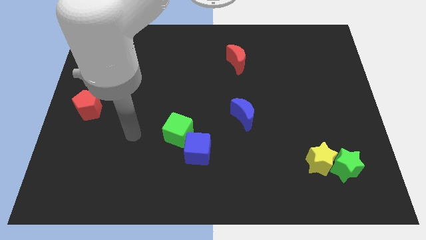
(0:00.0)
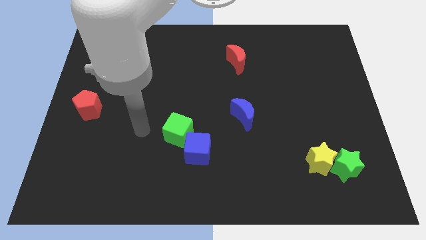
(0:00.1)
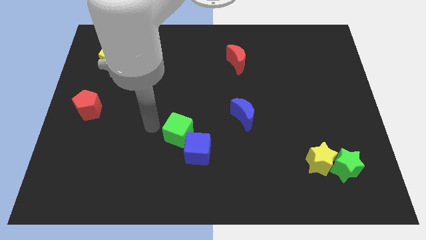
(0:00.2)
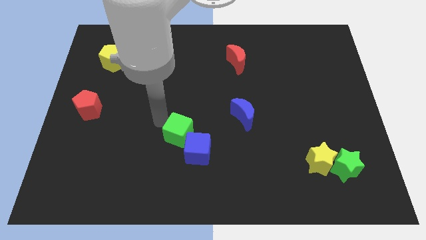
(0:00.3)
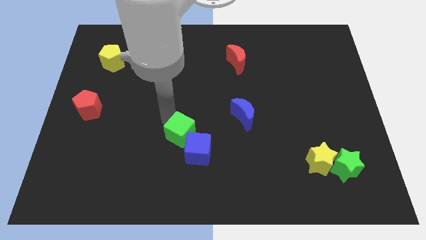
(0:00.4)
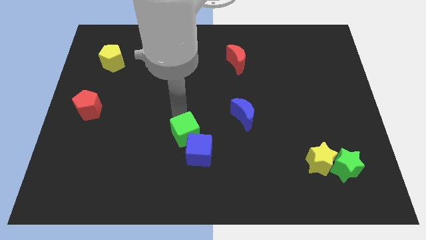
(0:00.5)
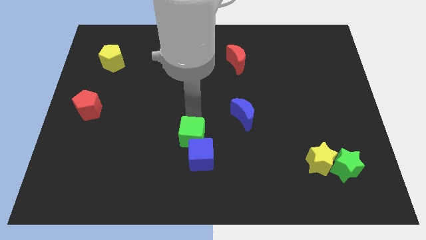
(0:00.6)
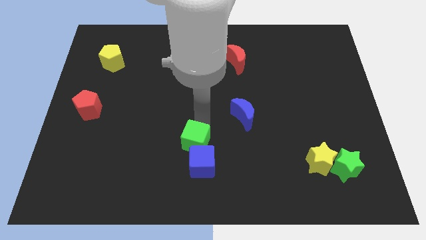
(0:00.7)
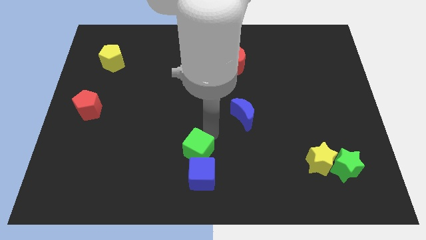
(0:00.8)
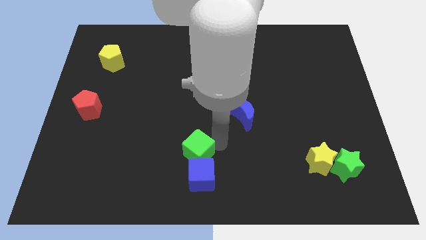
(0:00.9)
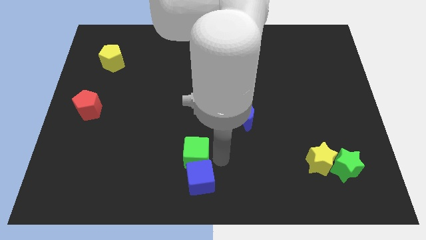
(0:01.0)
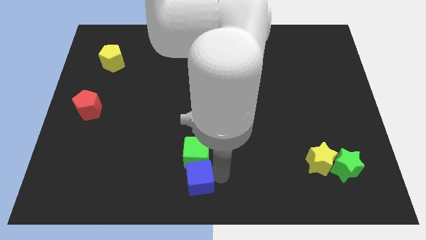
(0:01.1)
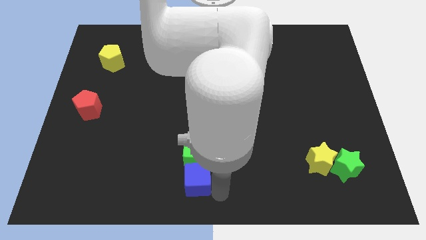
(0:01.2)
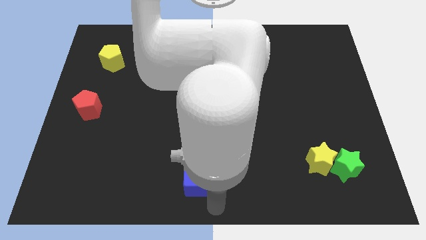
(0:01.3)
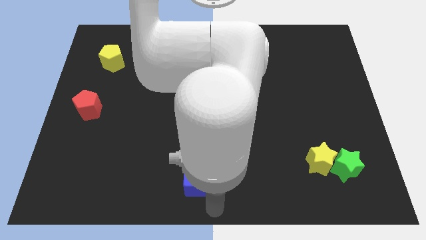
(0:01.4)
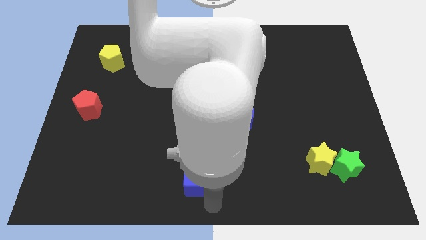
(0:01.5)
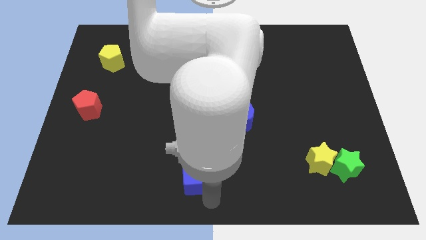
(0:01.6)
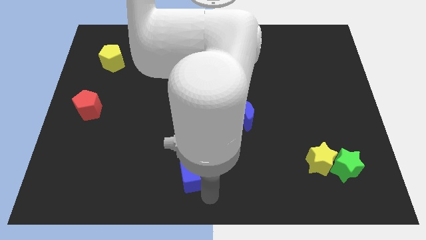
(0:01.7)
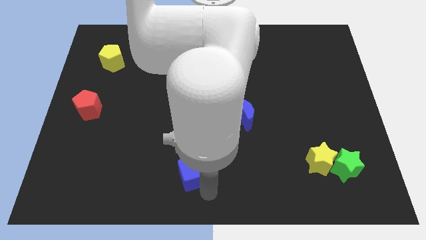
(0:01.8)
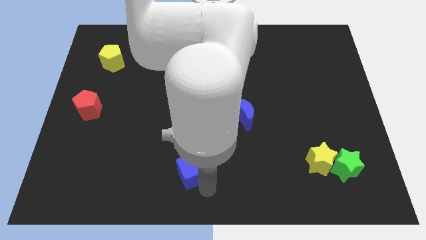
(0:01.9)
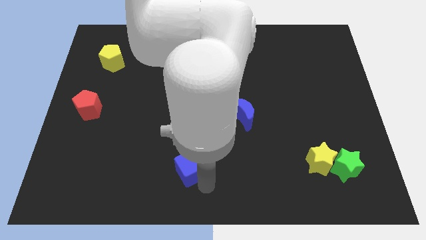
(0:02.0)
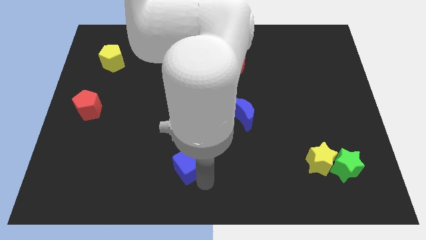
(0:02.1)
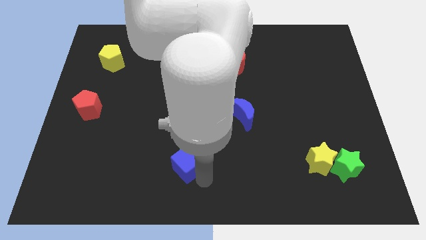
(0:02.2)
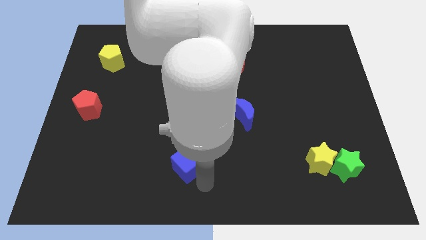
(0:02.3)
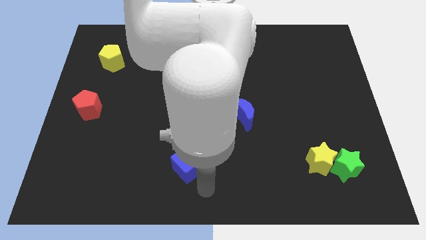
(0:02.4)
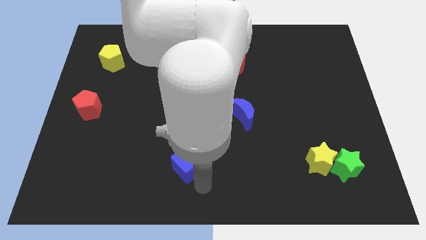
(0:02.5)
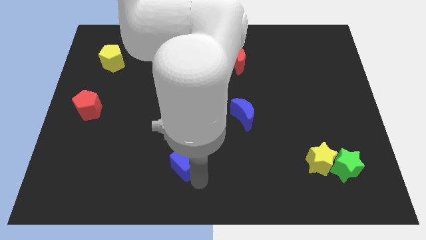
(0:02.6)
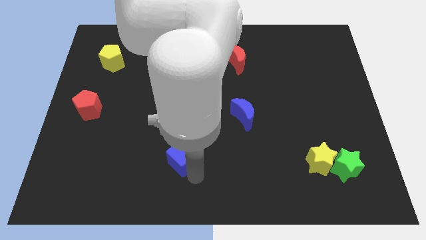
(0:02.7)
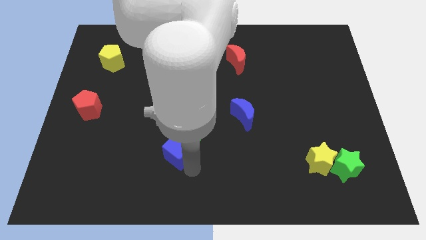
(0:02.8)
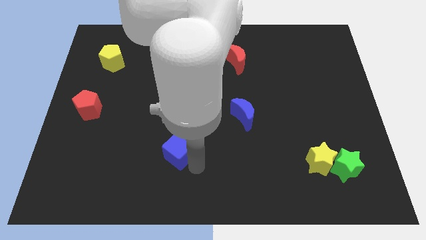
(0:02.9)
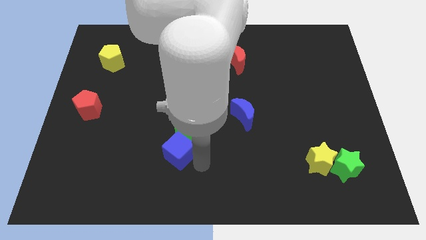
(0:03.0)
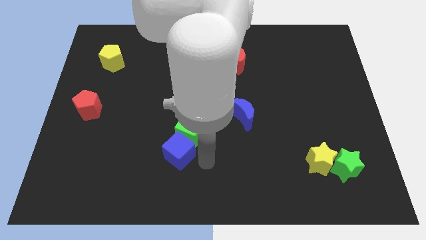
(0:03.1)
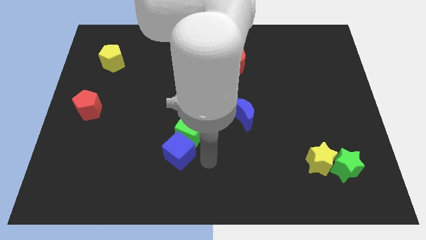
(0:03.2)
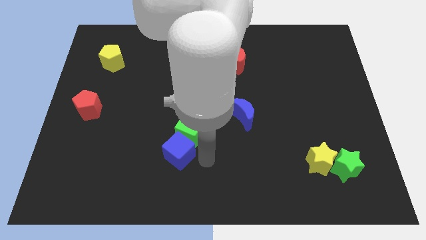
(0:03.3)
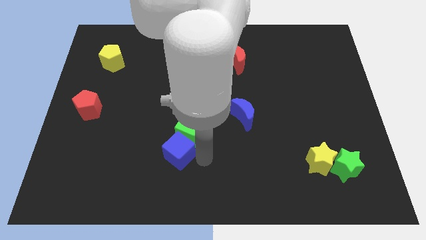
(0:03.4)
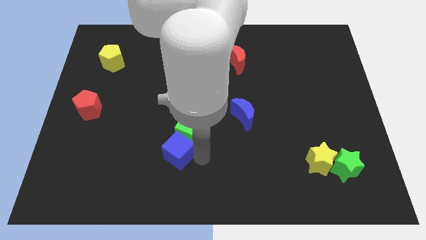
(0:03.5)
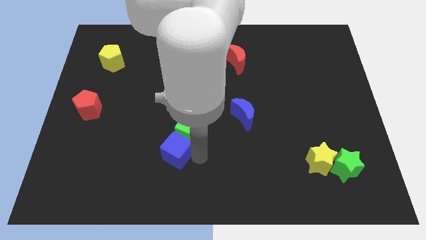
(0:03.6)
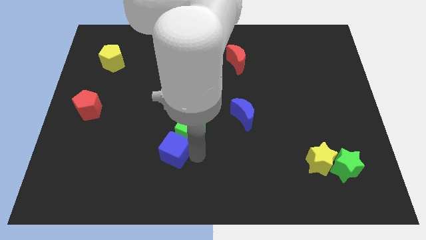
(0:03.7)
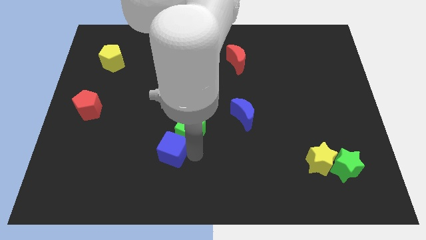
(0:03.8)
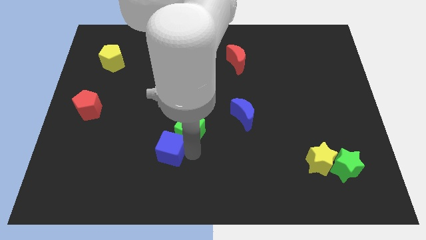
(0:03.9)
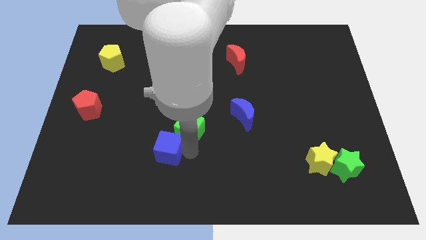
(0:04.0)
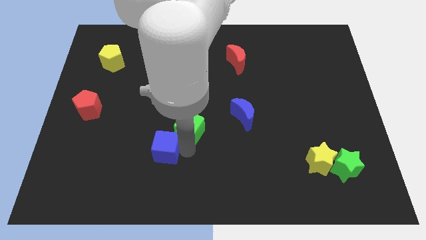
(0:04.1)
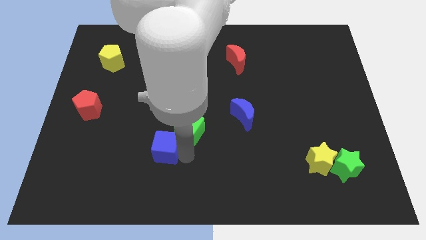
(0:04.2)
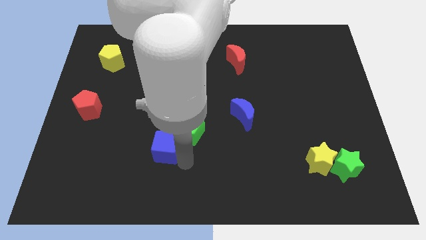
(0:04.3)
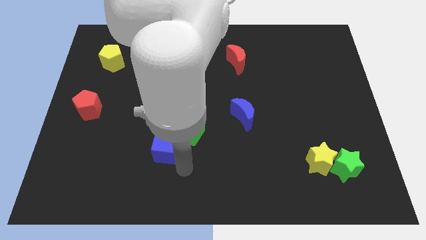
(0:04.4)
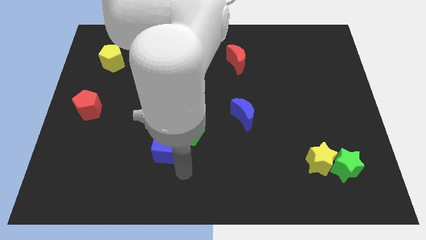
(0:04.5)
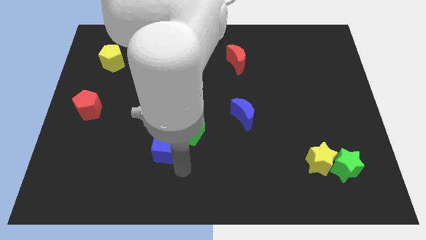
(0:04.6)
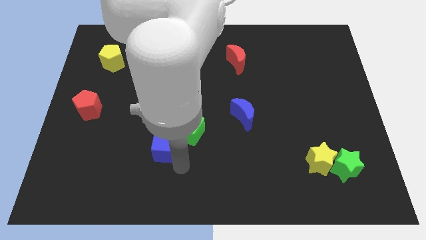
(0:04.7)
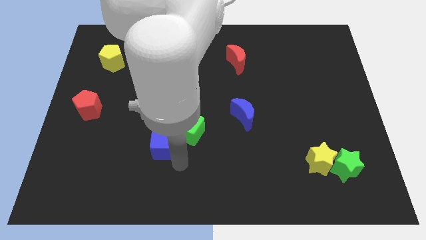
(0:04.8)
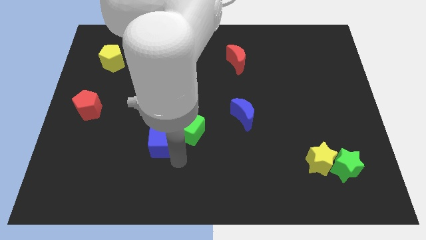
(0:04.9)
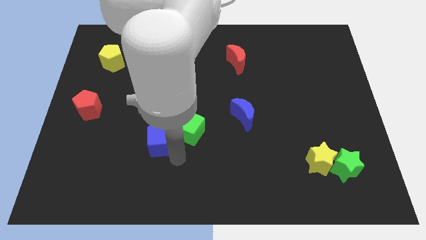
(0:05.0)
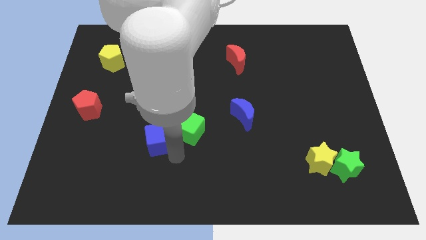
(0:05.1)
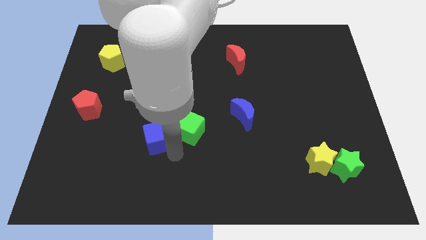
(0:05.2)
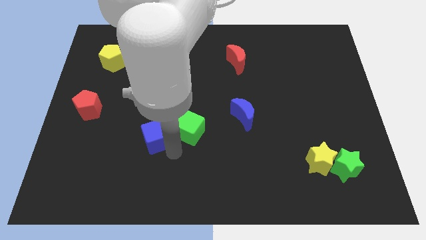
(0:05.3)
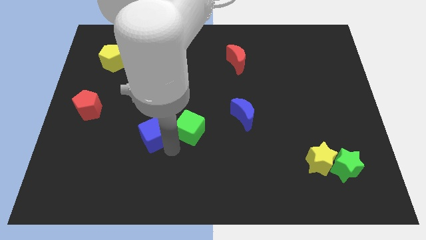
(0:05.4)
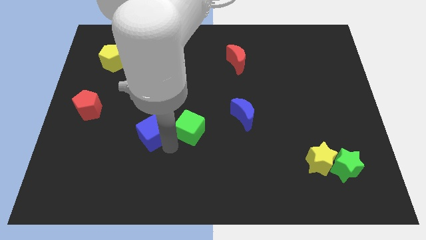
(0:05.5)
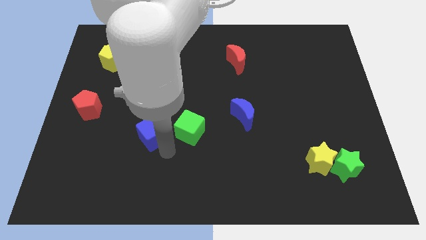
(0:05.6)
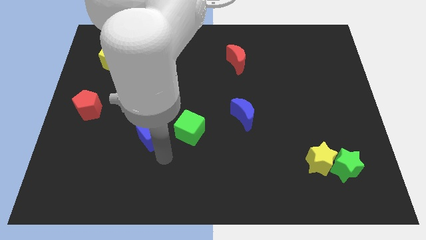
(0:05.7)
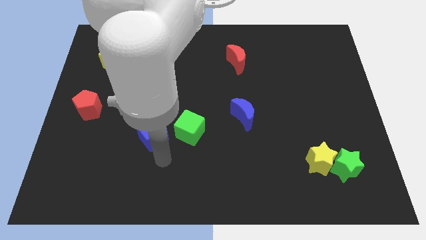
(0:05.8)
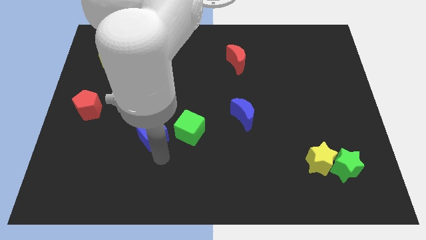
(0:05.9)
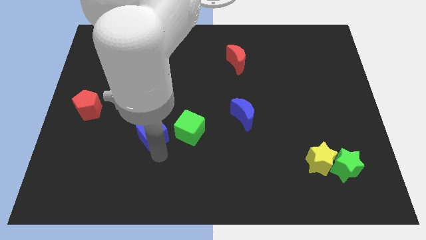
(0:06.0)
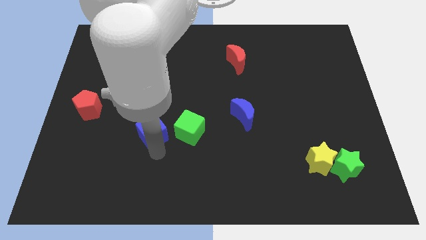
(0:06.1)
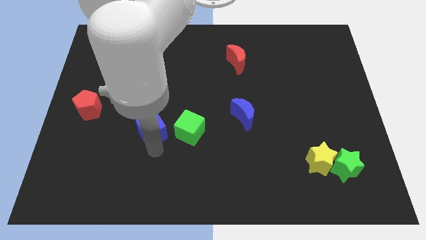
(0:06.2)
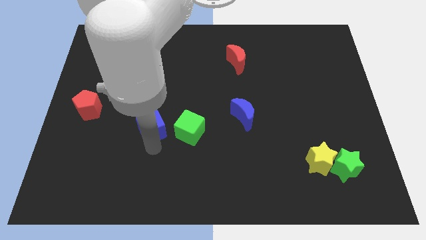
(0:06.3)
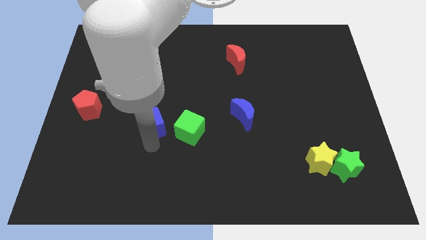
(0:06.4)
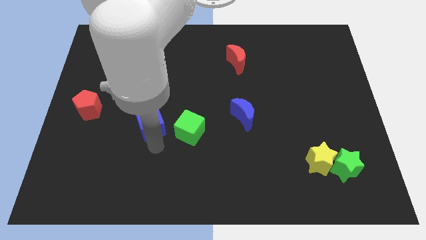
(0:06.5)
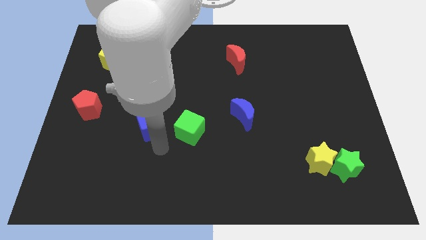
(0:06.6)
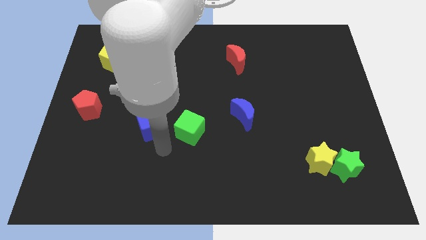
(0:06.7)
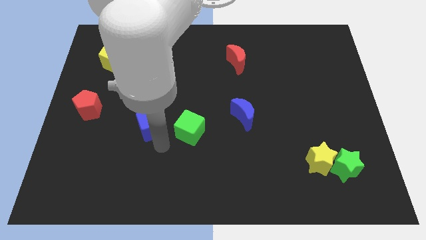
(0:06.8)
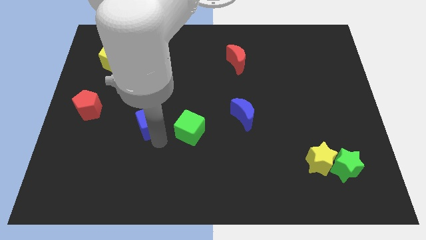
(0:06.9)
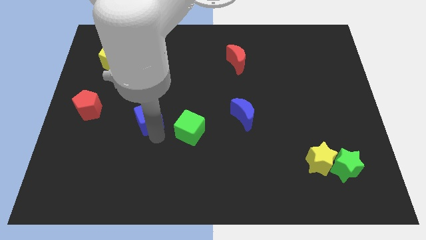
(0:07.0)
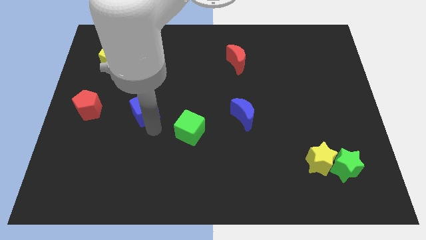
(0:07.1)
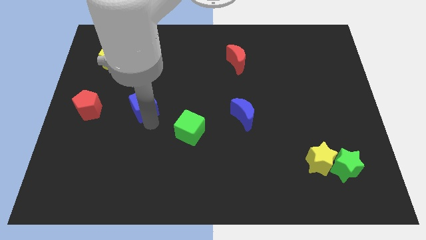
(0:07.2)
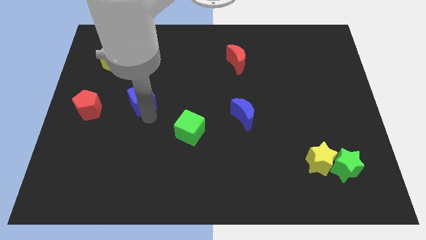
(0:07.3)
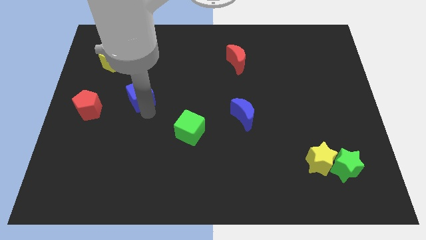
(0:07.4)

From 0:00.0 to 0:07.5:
slide the blue cube upwards and left diagonally

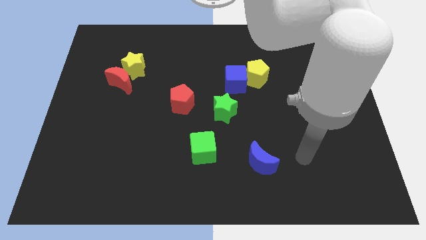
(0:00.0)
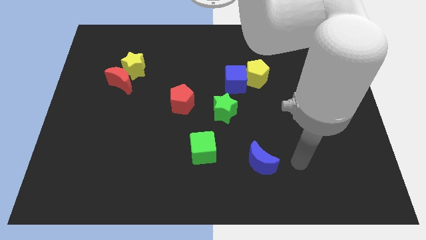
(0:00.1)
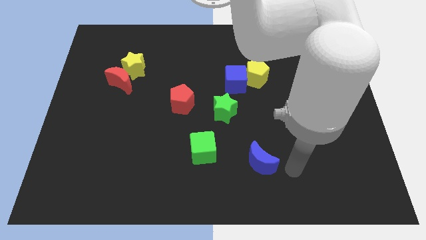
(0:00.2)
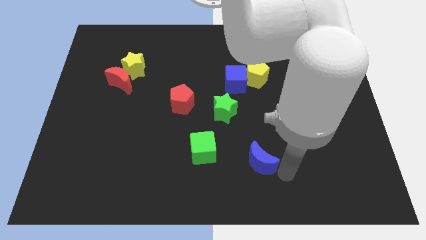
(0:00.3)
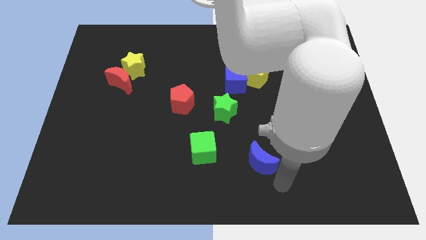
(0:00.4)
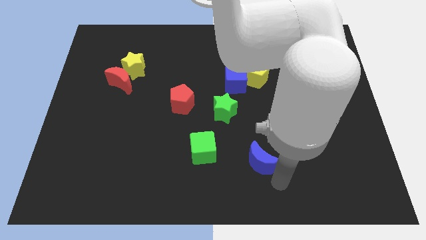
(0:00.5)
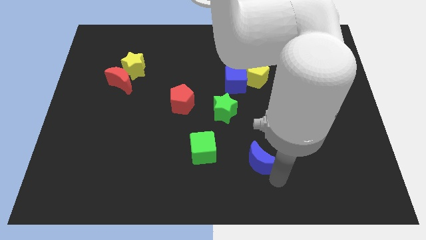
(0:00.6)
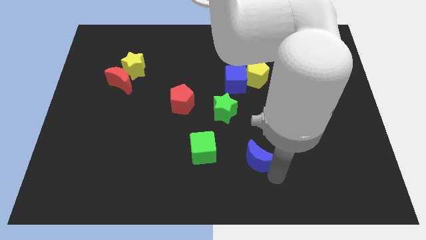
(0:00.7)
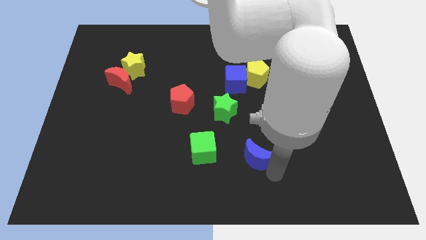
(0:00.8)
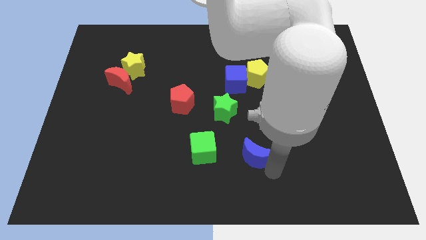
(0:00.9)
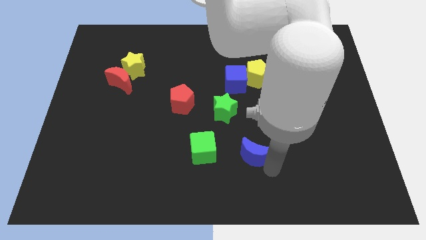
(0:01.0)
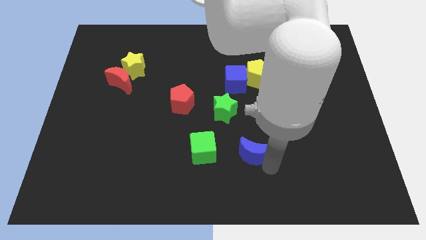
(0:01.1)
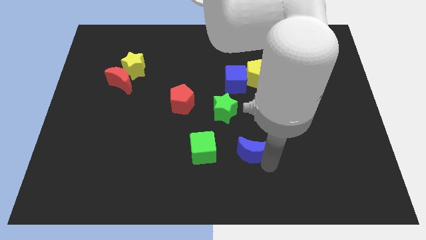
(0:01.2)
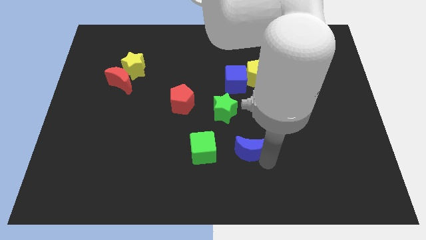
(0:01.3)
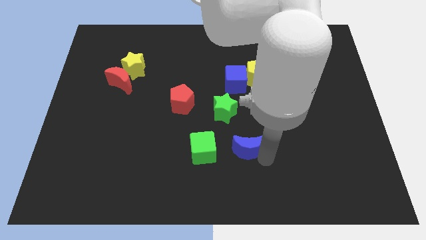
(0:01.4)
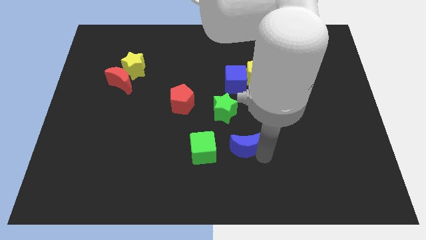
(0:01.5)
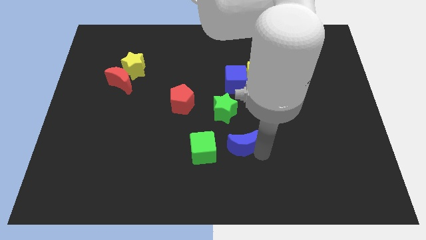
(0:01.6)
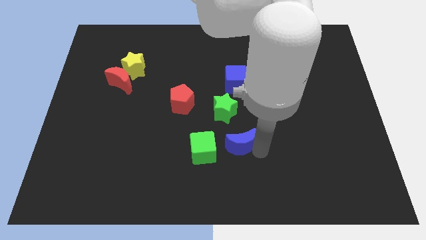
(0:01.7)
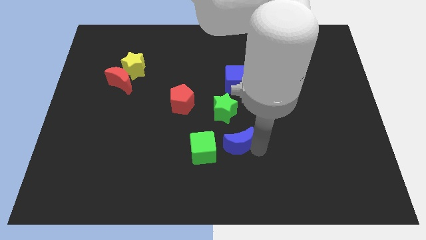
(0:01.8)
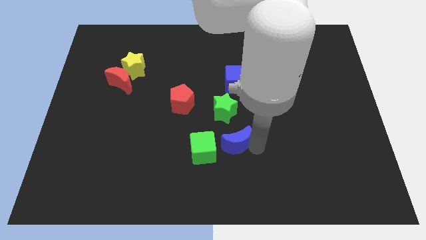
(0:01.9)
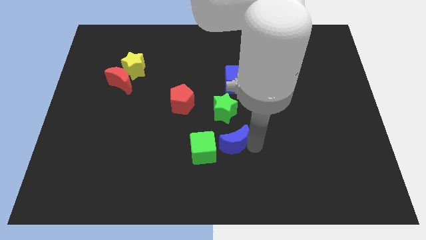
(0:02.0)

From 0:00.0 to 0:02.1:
move the blue moon a little bit upwards and then to the left
